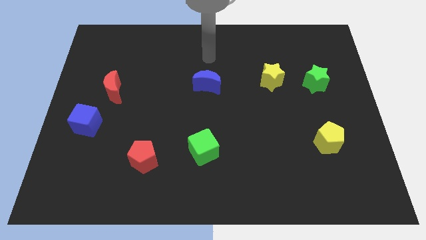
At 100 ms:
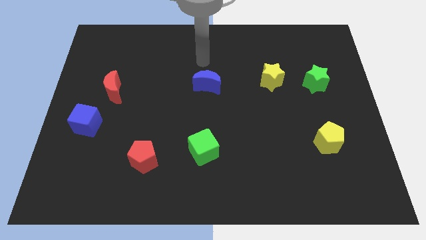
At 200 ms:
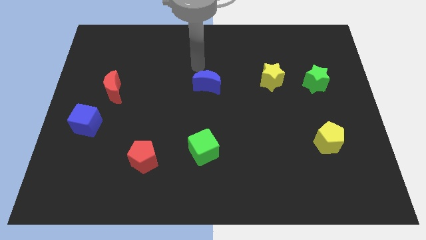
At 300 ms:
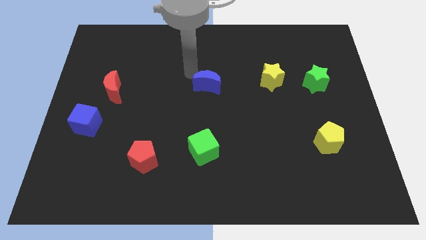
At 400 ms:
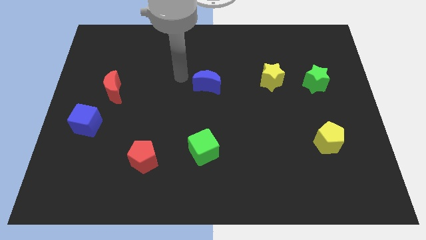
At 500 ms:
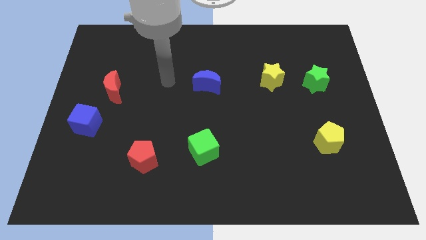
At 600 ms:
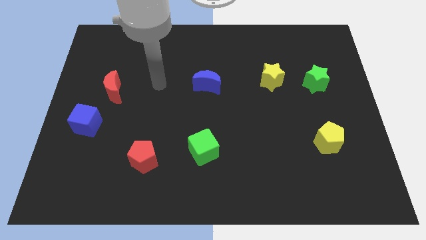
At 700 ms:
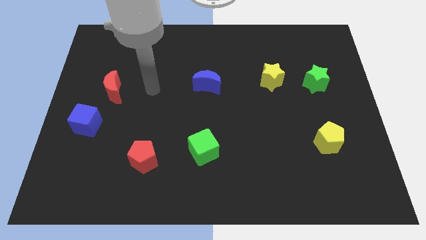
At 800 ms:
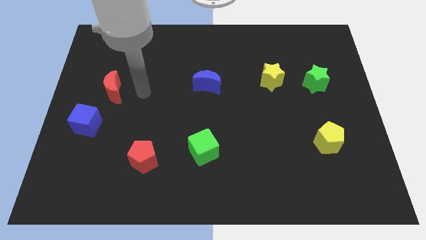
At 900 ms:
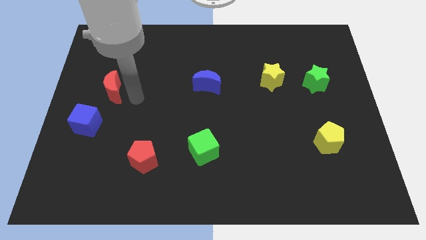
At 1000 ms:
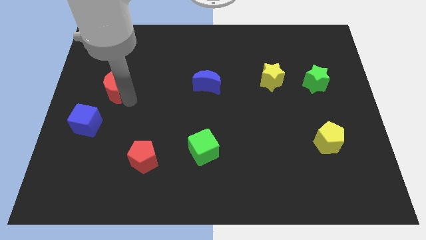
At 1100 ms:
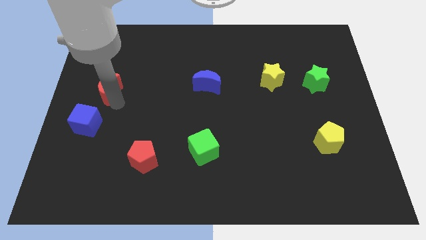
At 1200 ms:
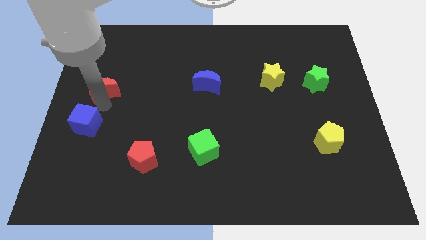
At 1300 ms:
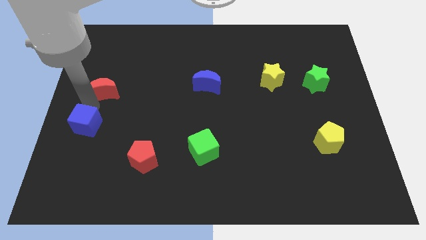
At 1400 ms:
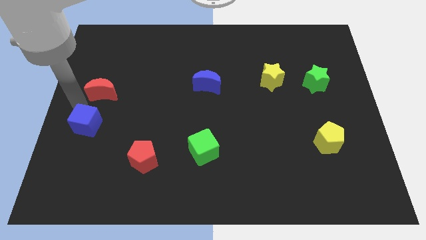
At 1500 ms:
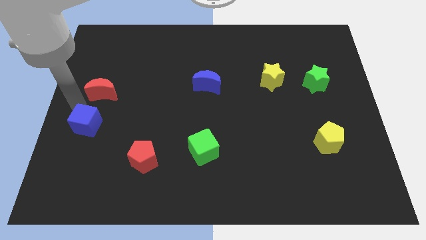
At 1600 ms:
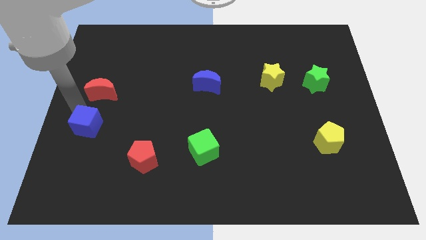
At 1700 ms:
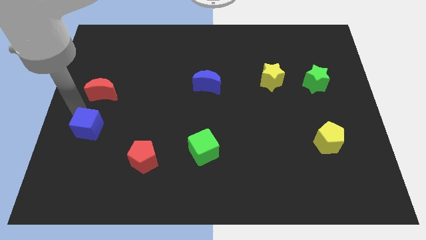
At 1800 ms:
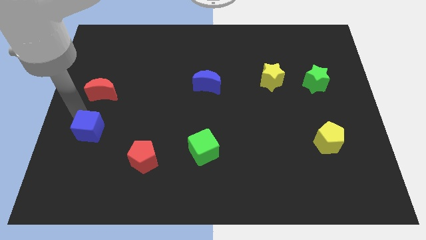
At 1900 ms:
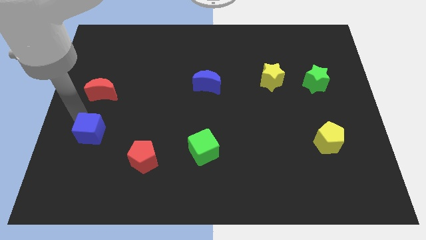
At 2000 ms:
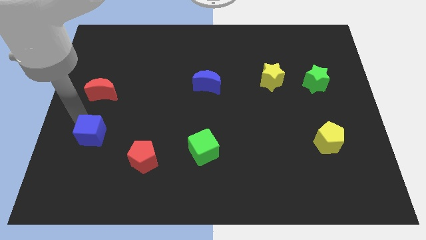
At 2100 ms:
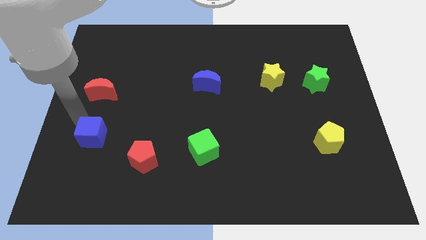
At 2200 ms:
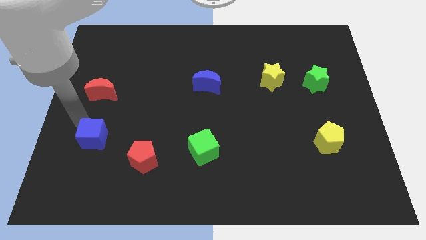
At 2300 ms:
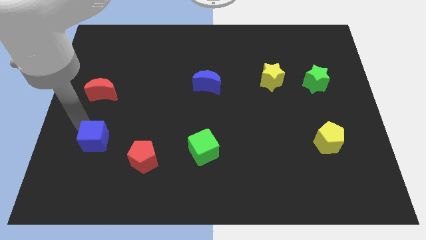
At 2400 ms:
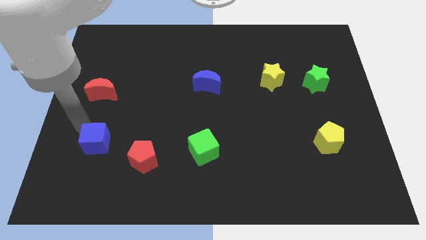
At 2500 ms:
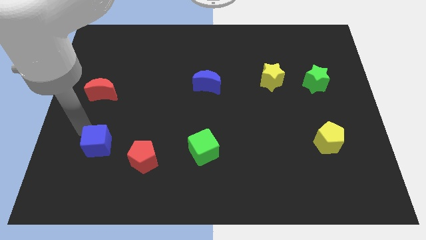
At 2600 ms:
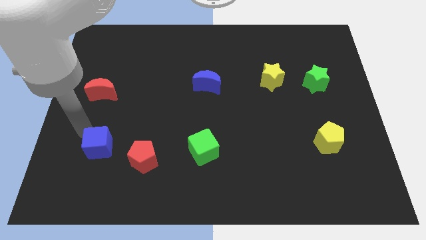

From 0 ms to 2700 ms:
push the blue cube a little diagonally down and to the right

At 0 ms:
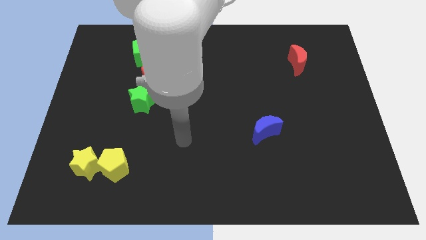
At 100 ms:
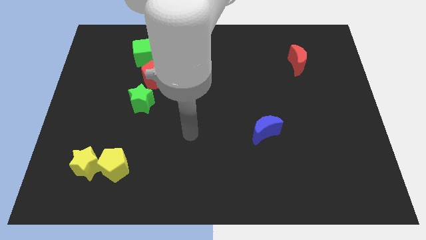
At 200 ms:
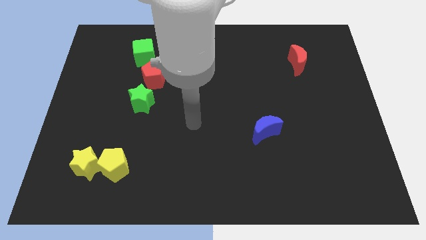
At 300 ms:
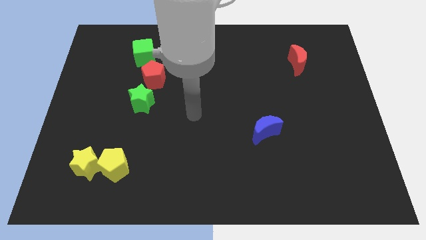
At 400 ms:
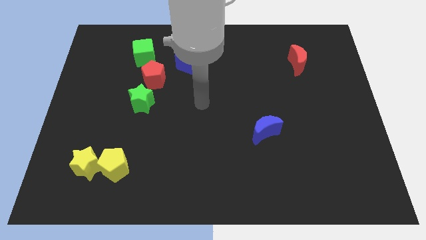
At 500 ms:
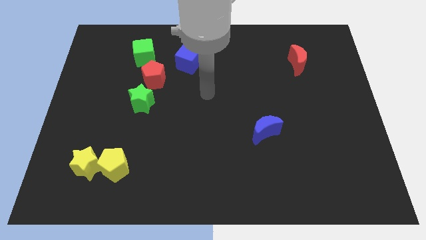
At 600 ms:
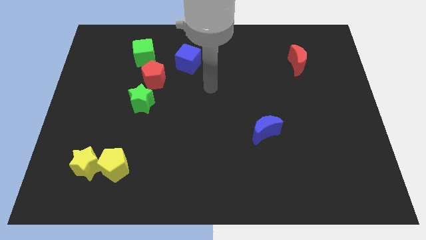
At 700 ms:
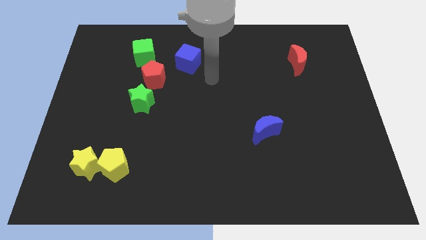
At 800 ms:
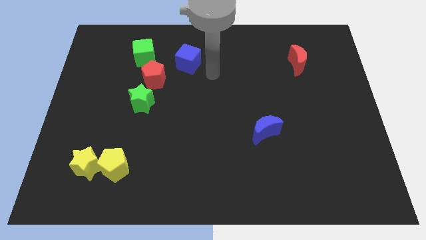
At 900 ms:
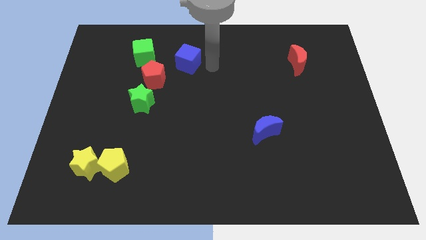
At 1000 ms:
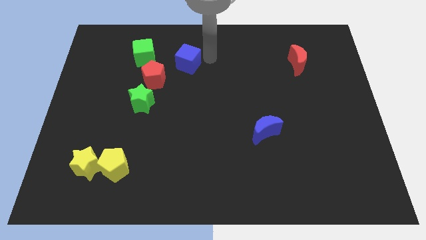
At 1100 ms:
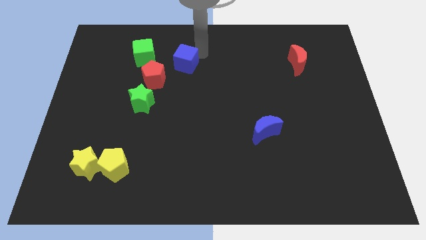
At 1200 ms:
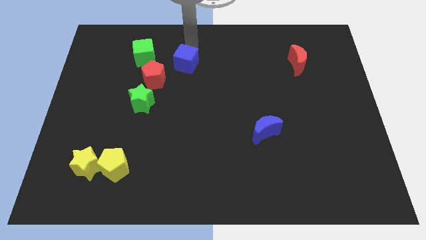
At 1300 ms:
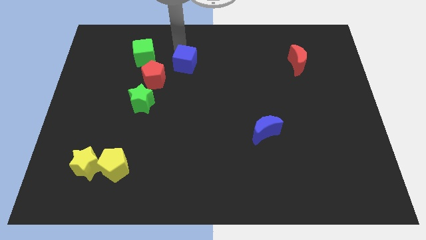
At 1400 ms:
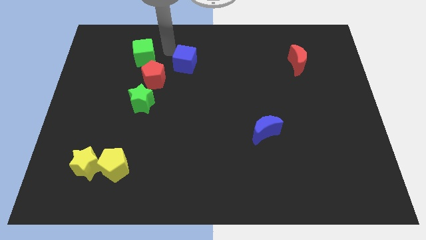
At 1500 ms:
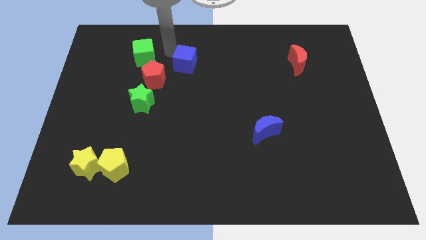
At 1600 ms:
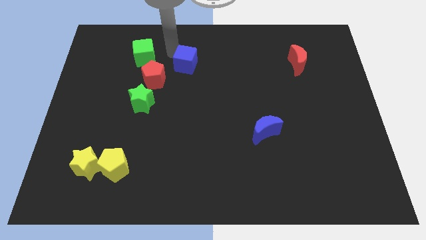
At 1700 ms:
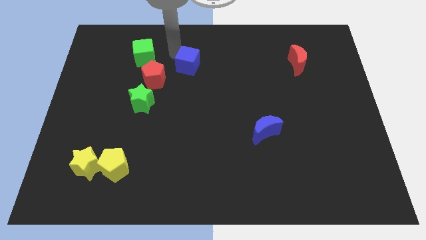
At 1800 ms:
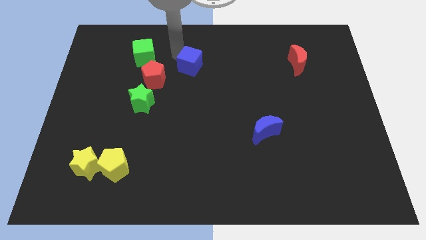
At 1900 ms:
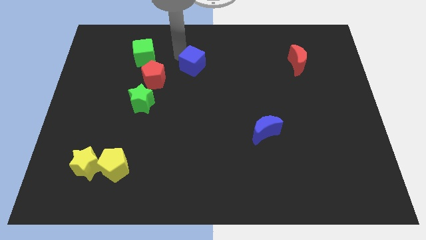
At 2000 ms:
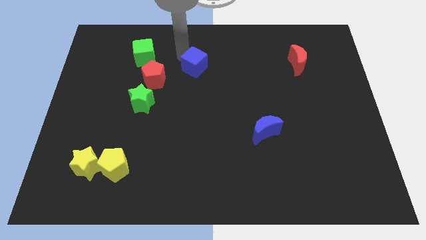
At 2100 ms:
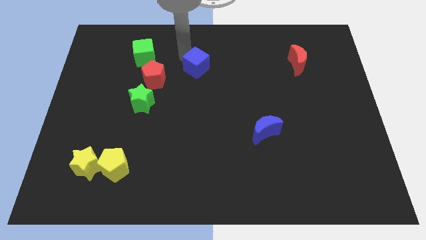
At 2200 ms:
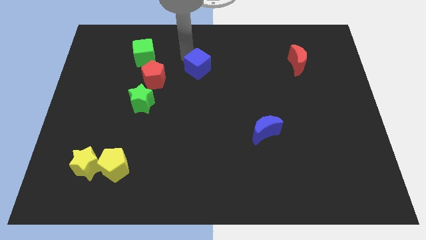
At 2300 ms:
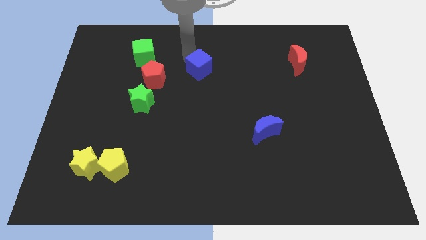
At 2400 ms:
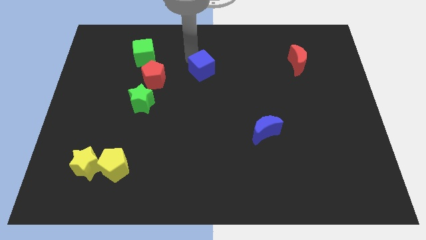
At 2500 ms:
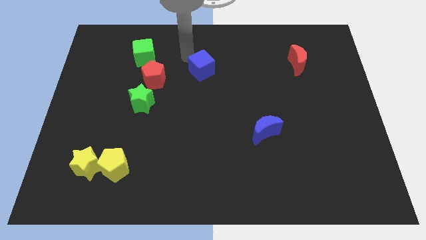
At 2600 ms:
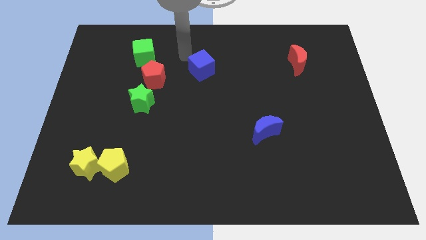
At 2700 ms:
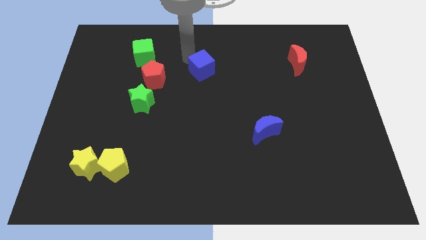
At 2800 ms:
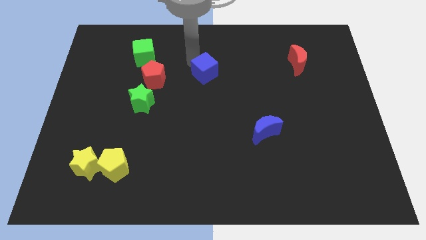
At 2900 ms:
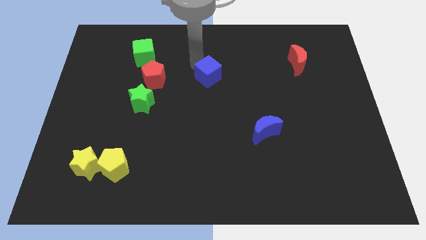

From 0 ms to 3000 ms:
push the blue cube downwards and right diagonally a little bit

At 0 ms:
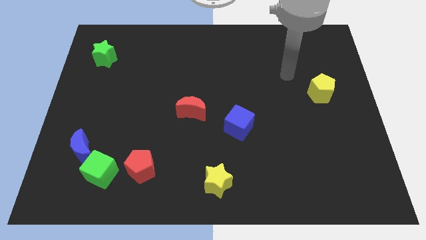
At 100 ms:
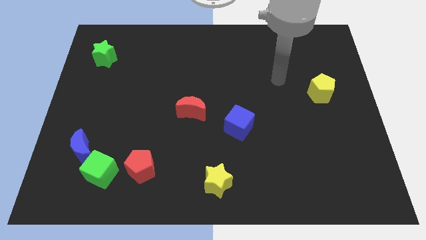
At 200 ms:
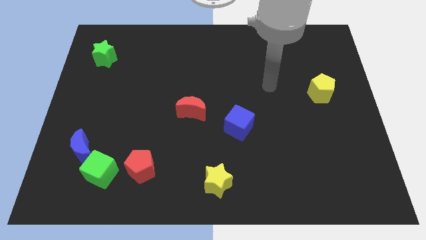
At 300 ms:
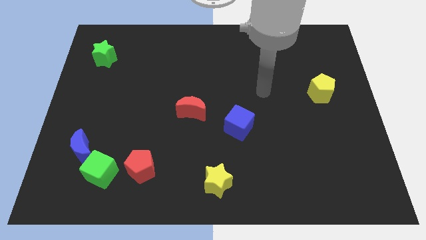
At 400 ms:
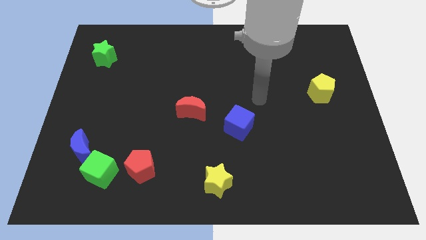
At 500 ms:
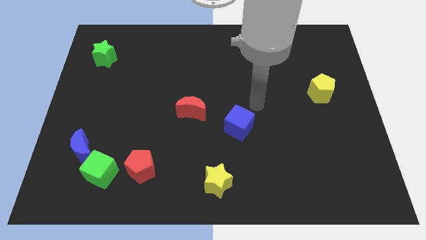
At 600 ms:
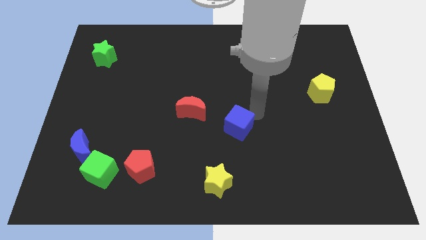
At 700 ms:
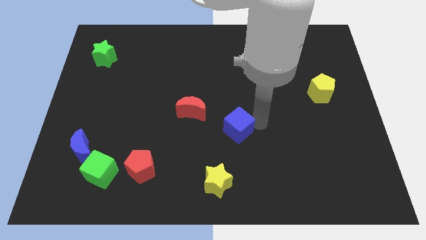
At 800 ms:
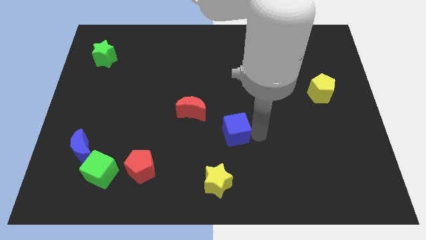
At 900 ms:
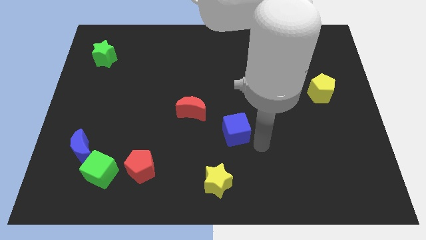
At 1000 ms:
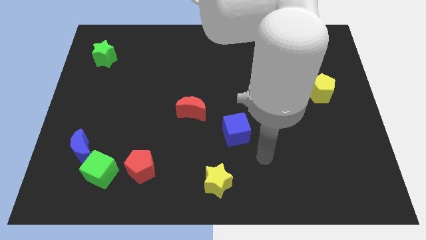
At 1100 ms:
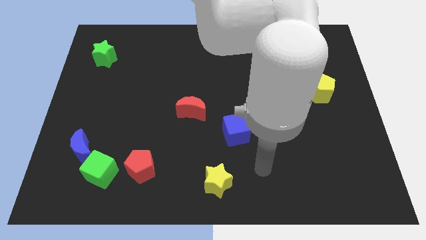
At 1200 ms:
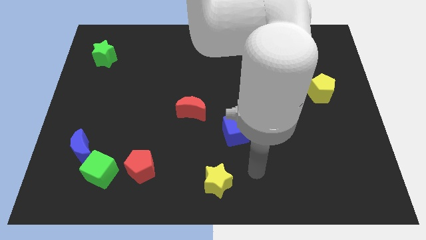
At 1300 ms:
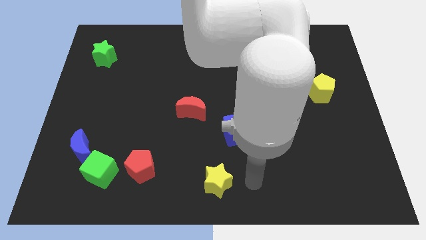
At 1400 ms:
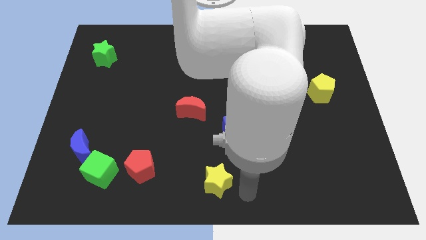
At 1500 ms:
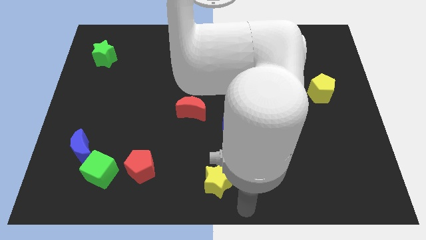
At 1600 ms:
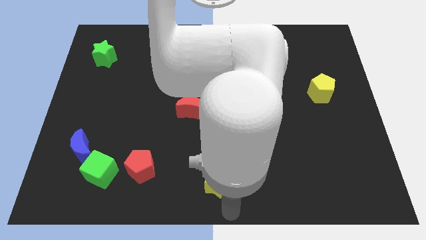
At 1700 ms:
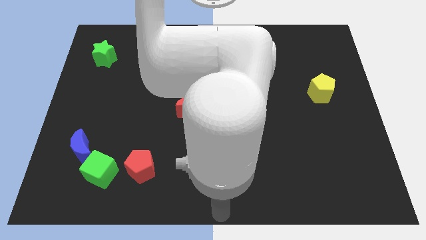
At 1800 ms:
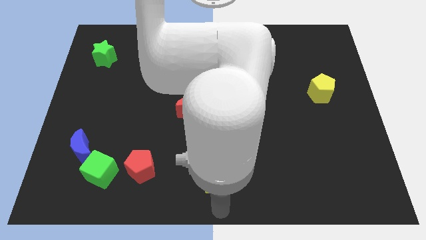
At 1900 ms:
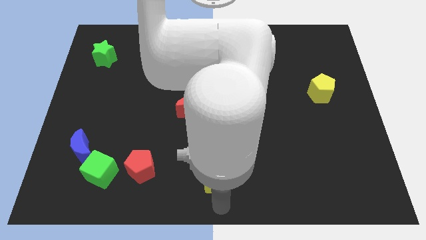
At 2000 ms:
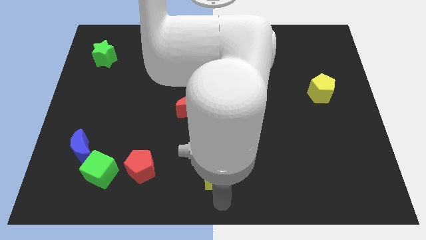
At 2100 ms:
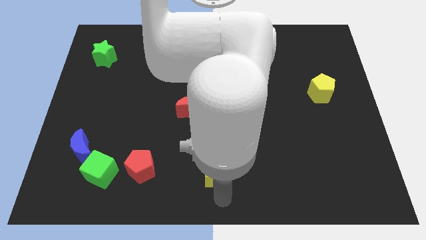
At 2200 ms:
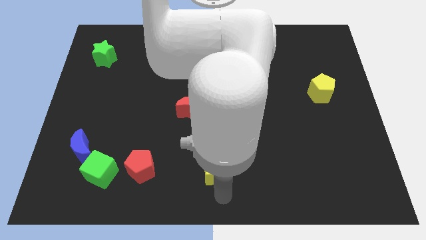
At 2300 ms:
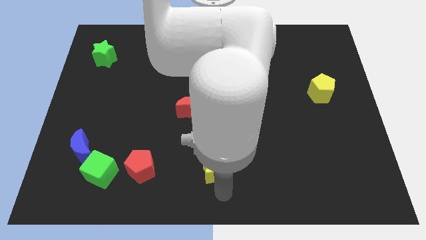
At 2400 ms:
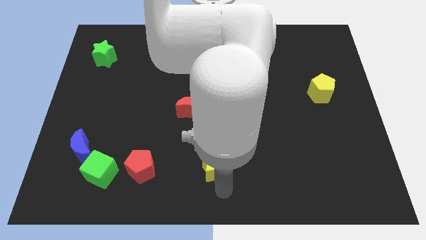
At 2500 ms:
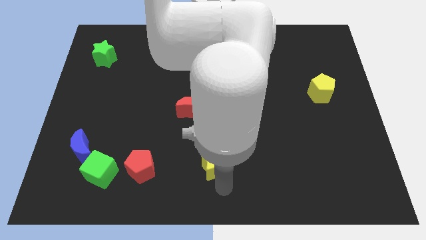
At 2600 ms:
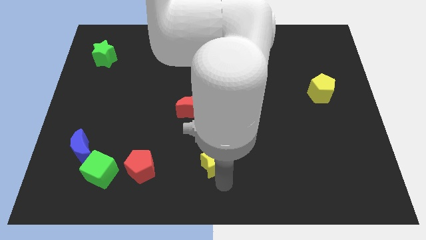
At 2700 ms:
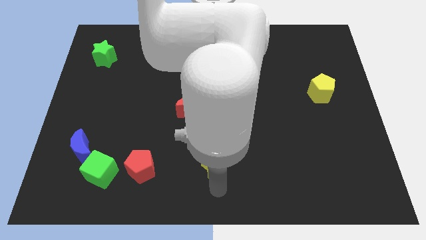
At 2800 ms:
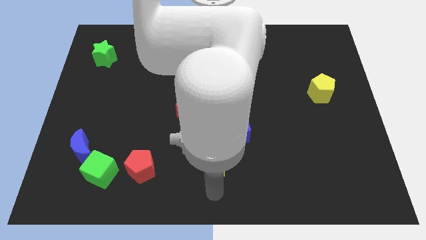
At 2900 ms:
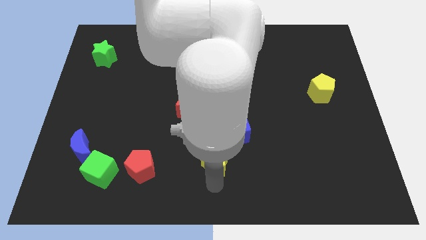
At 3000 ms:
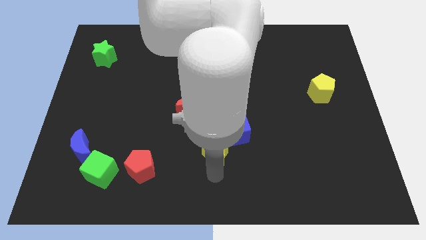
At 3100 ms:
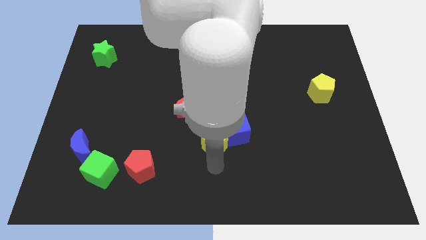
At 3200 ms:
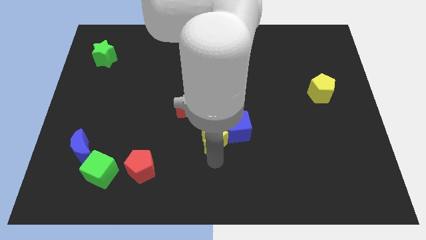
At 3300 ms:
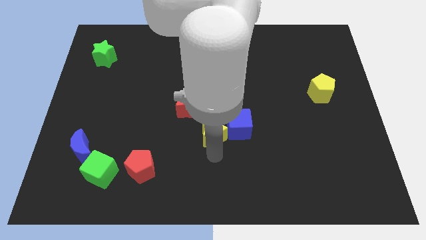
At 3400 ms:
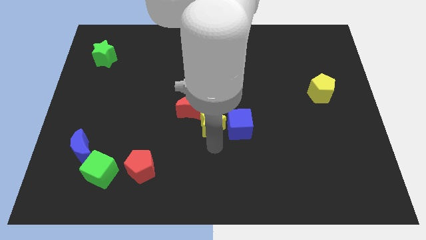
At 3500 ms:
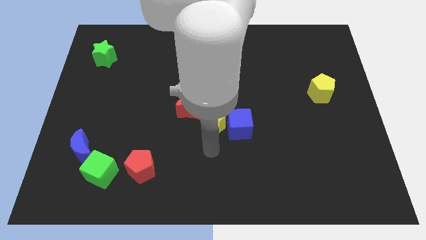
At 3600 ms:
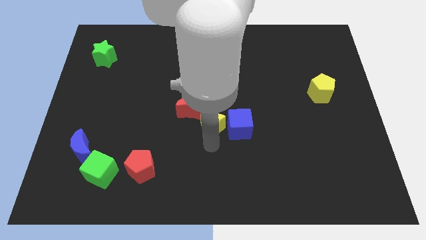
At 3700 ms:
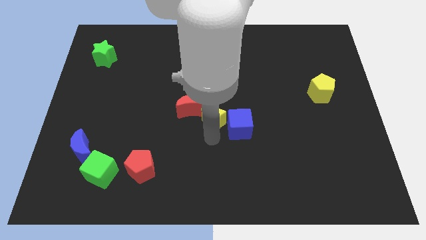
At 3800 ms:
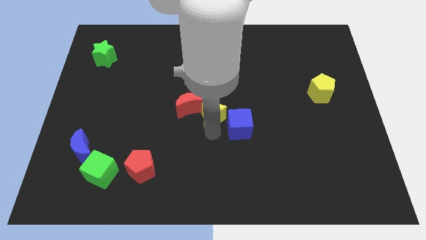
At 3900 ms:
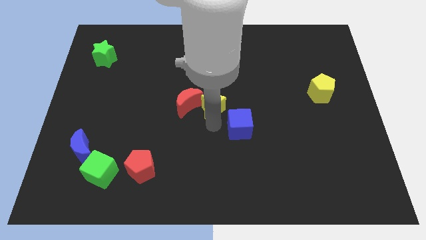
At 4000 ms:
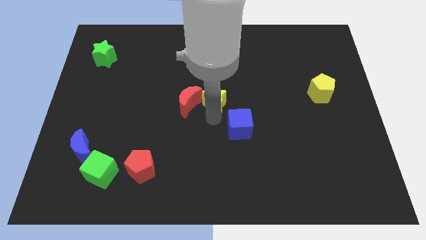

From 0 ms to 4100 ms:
push the yellow star upwards
